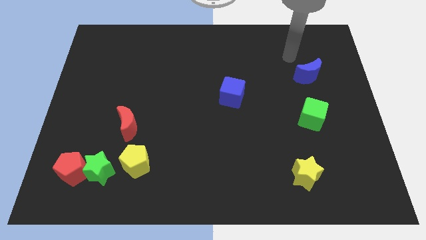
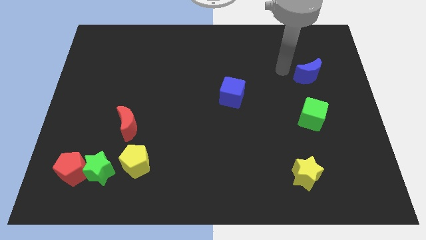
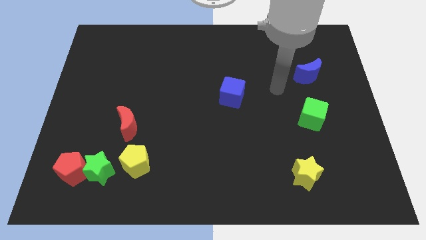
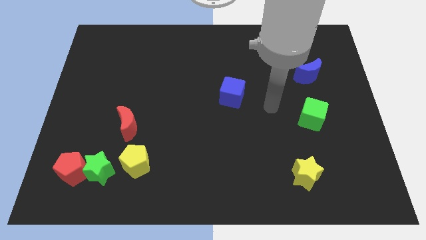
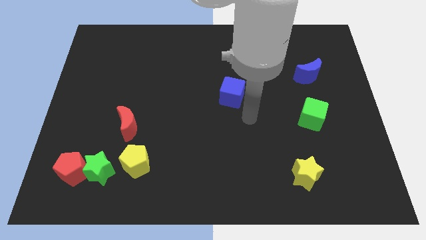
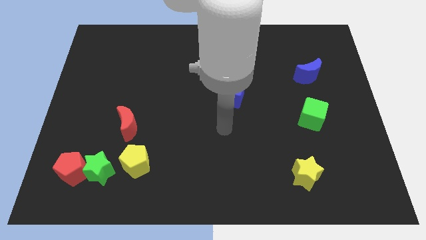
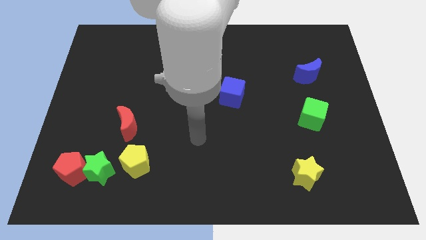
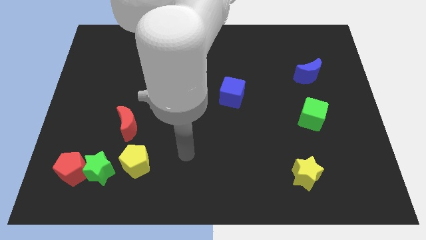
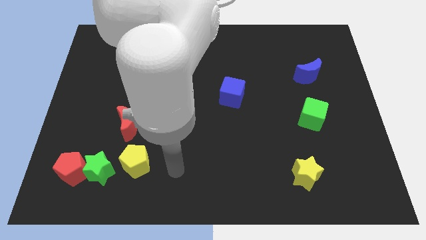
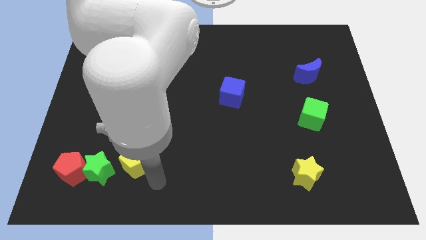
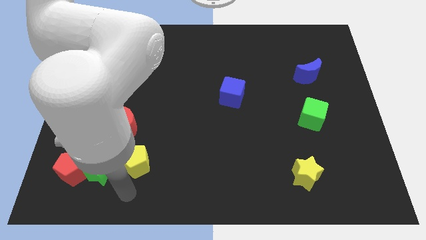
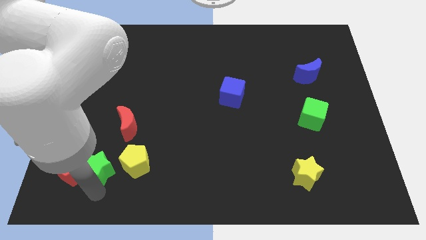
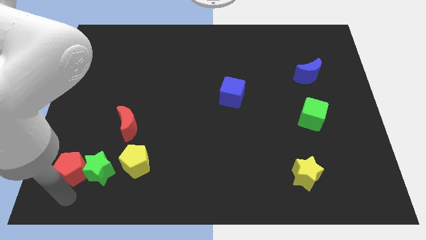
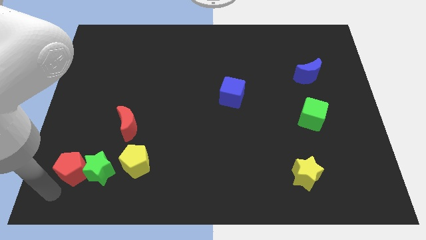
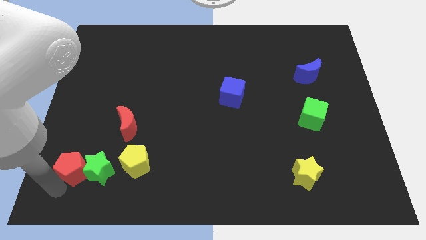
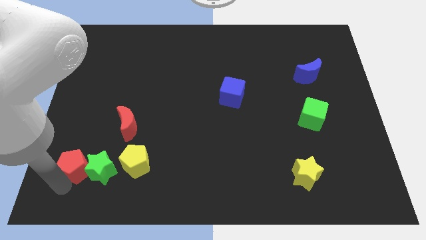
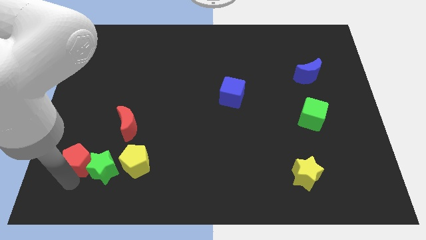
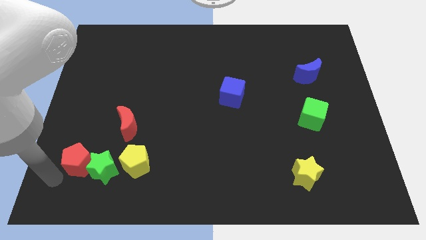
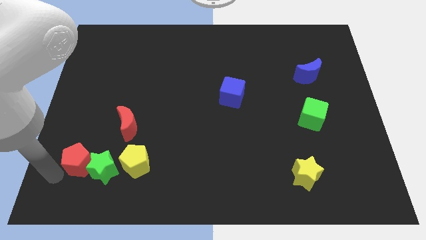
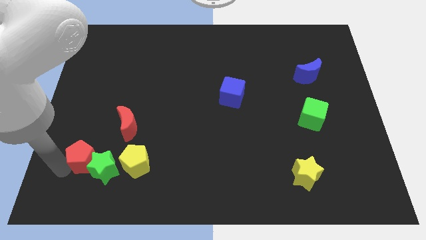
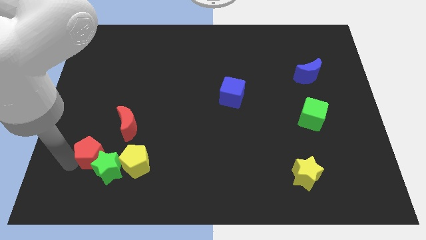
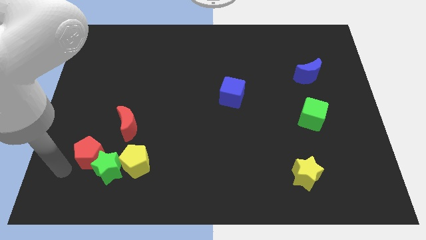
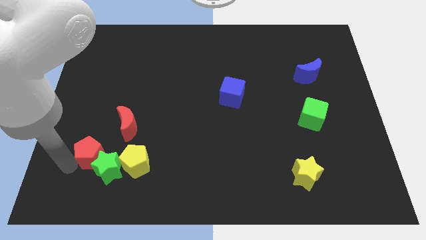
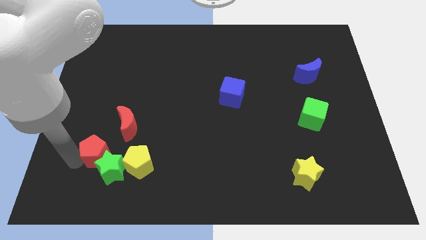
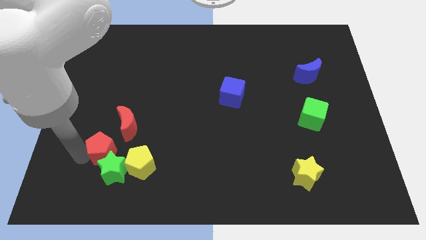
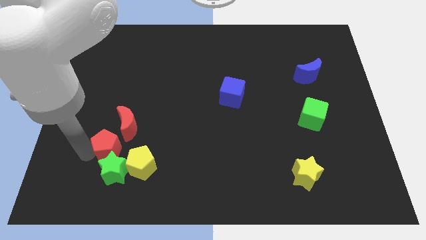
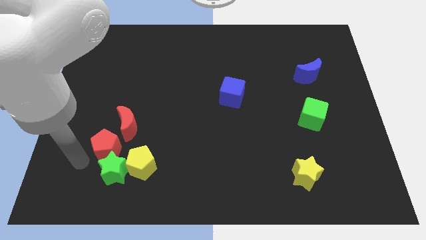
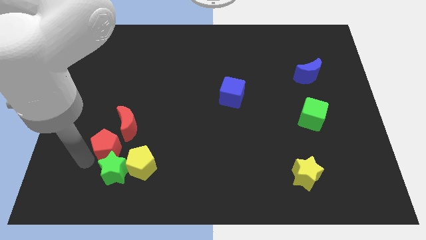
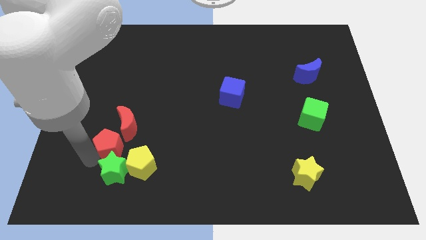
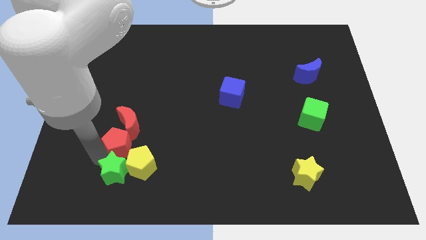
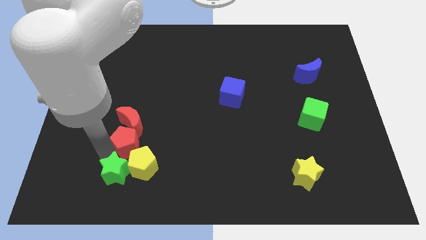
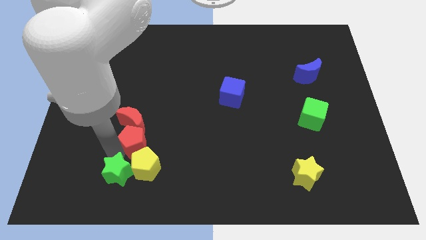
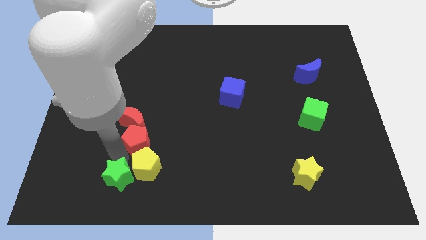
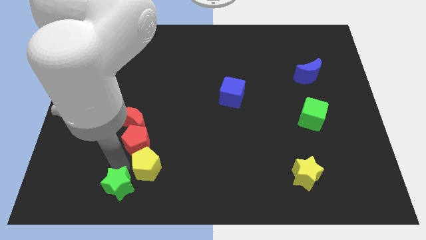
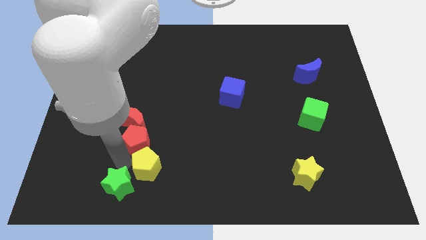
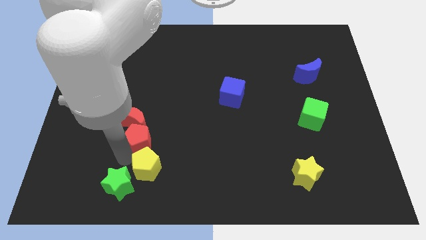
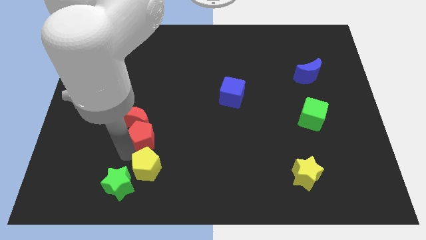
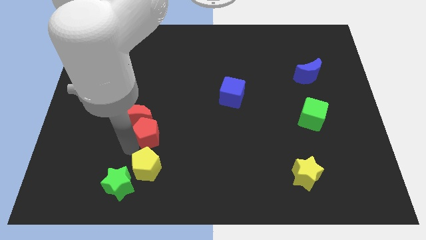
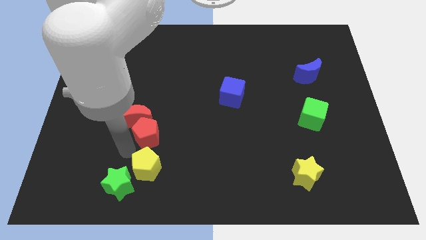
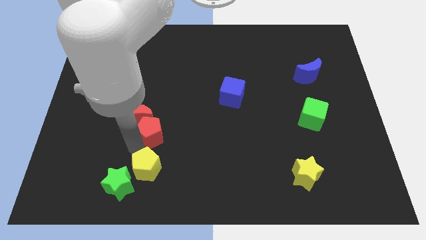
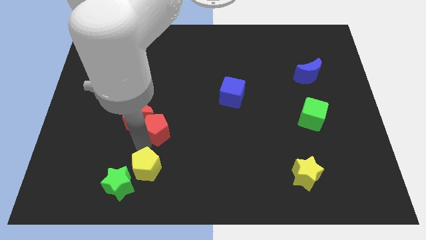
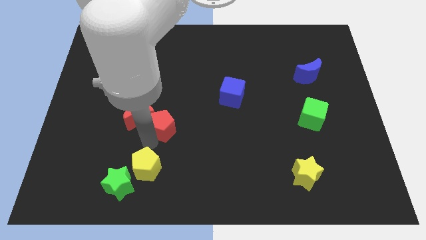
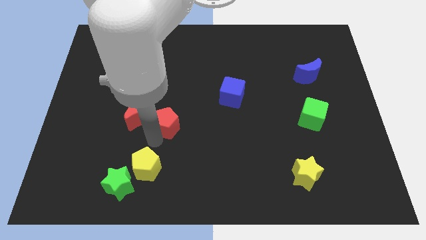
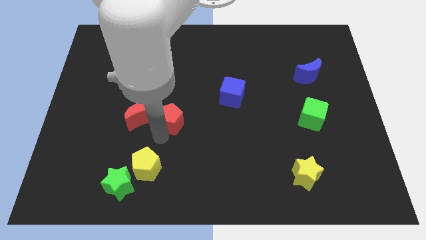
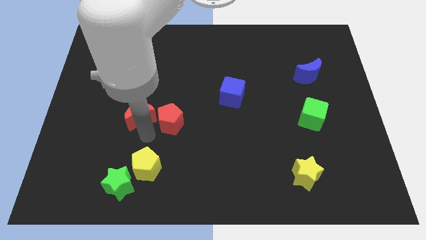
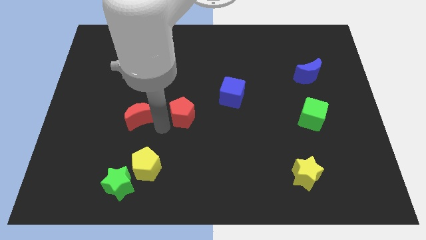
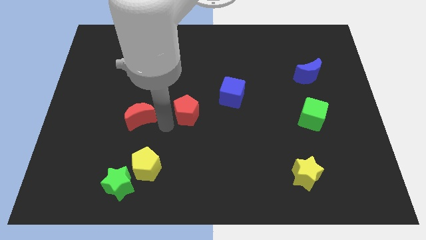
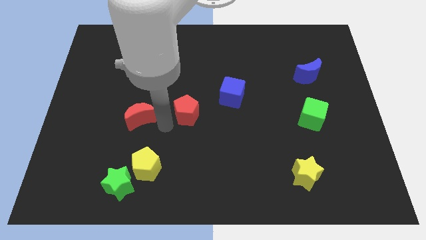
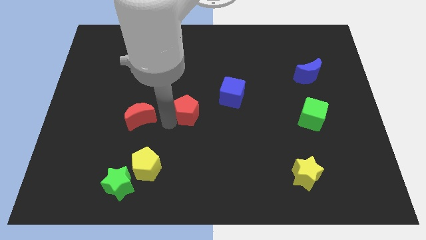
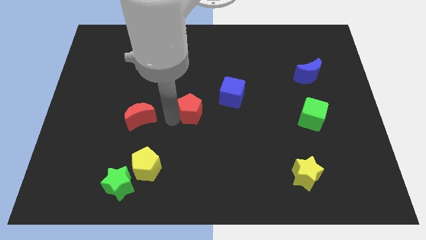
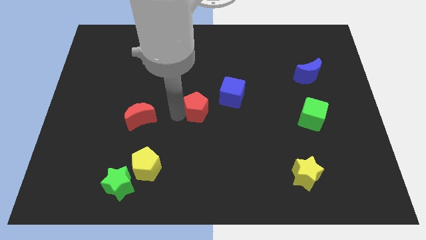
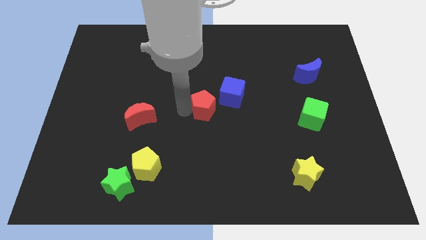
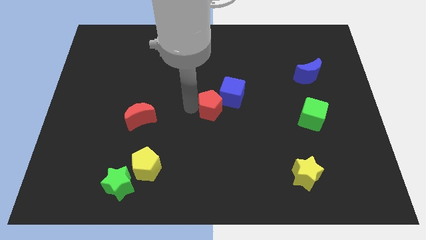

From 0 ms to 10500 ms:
put the red pentagon to the blue cube
